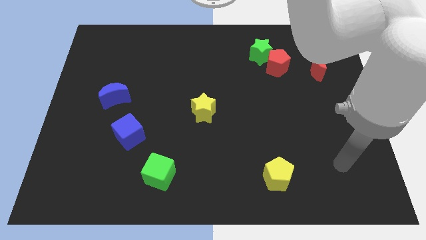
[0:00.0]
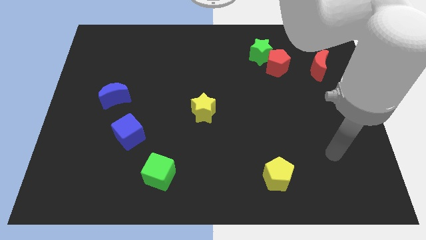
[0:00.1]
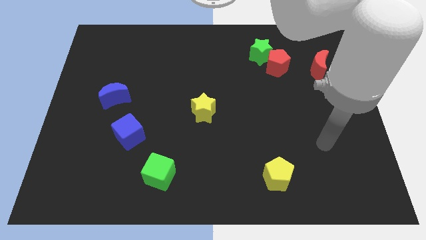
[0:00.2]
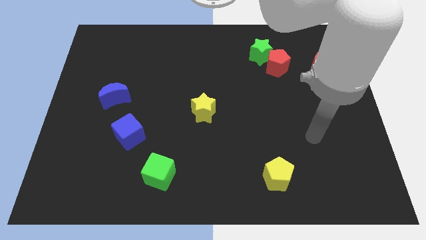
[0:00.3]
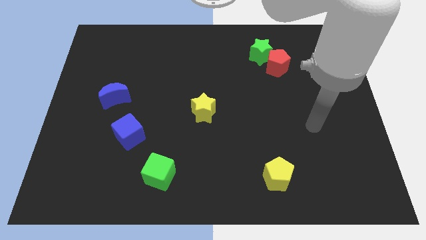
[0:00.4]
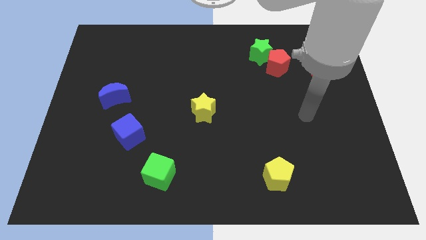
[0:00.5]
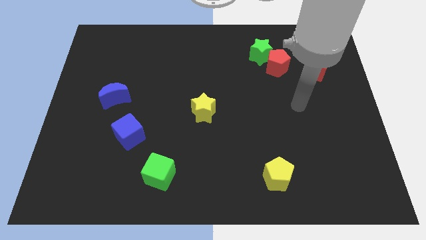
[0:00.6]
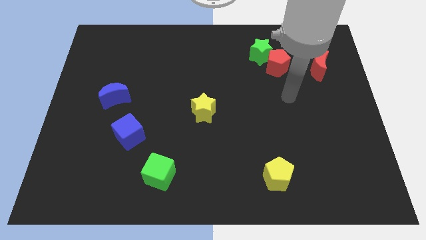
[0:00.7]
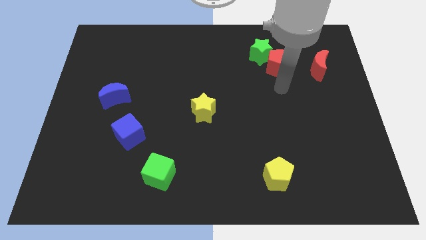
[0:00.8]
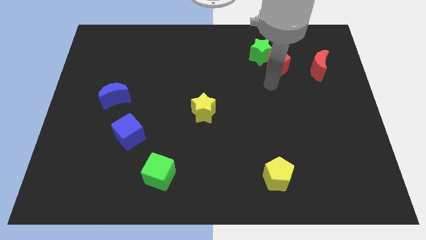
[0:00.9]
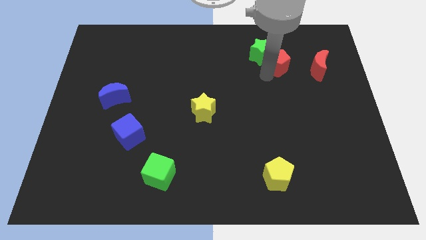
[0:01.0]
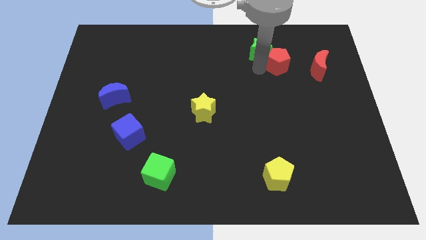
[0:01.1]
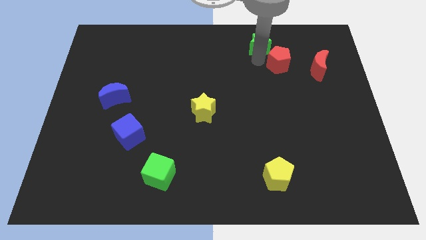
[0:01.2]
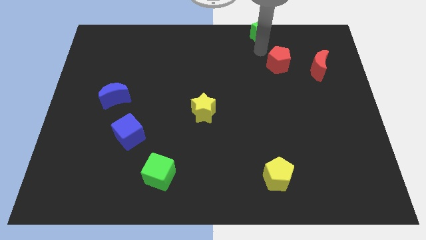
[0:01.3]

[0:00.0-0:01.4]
pull the red pentagon apart from the green star

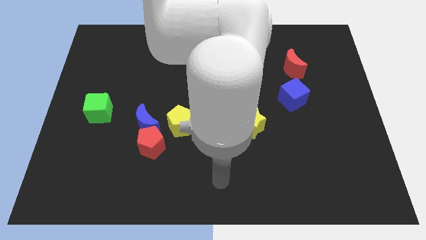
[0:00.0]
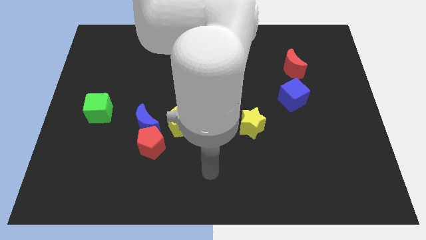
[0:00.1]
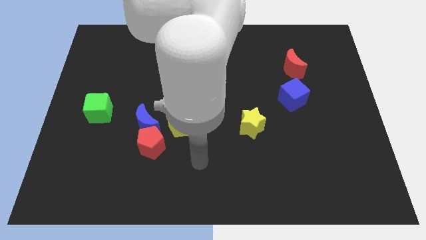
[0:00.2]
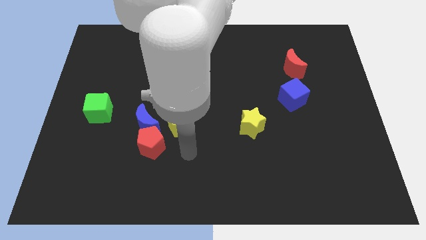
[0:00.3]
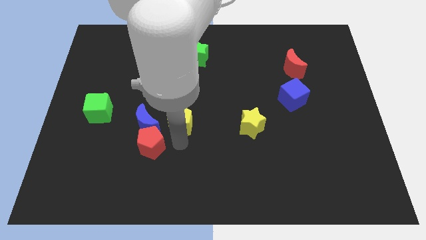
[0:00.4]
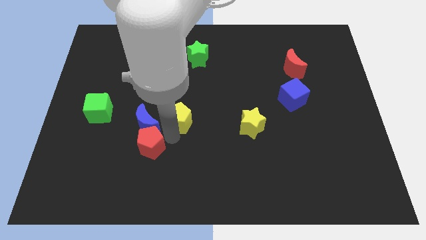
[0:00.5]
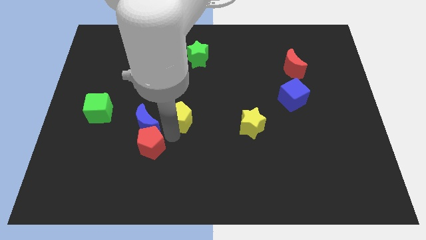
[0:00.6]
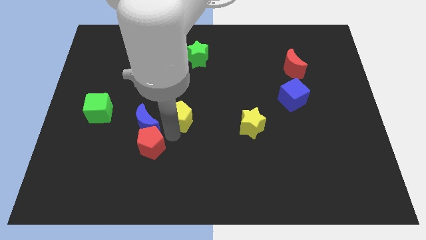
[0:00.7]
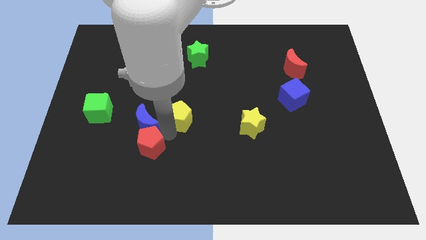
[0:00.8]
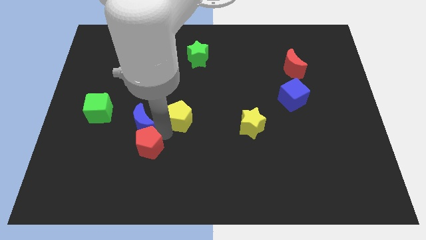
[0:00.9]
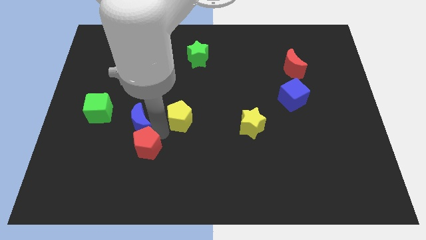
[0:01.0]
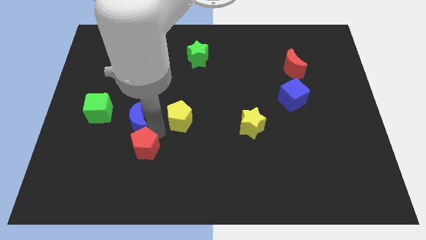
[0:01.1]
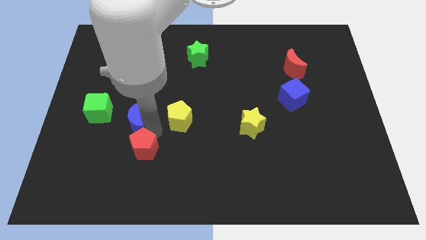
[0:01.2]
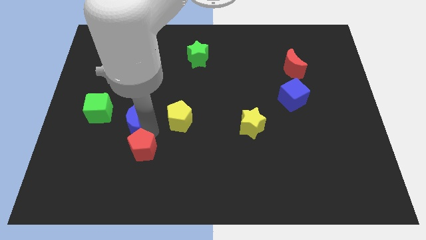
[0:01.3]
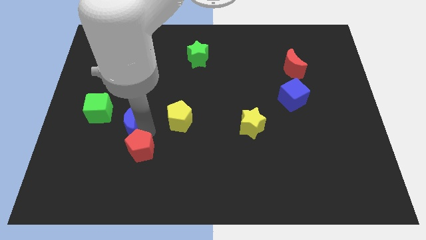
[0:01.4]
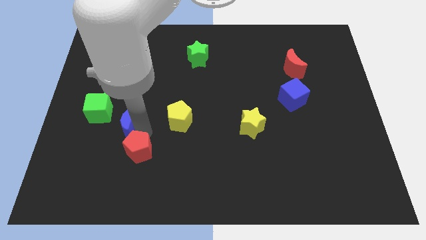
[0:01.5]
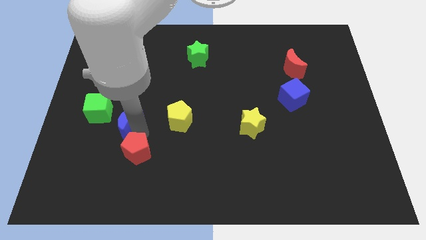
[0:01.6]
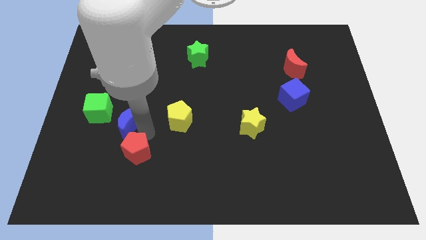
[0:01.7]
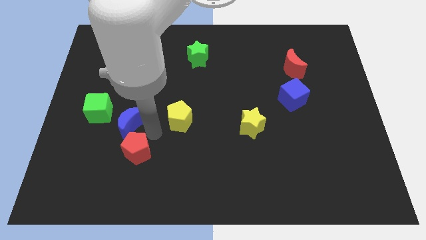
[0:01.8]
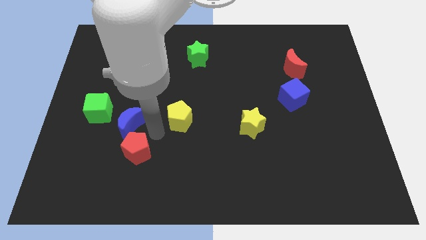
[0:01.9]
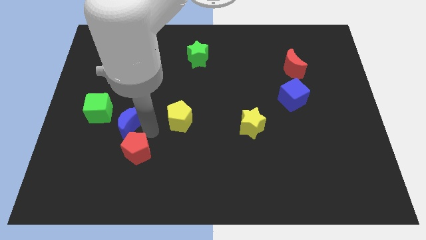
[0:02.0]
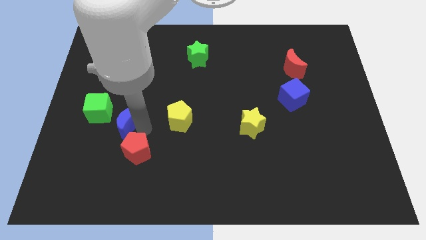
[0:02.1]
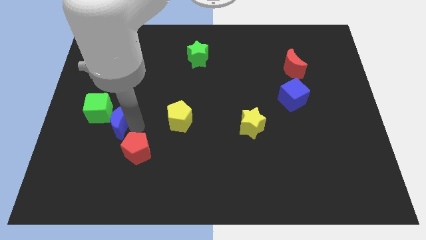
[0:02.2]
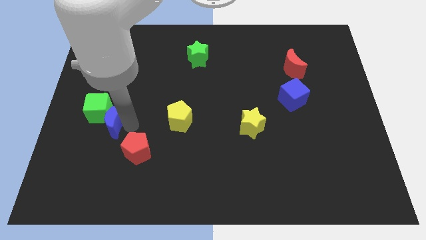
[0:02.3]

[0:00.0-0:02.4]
pull the blue moon apart from the red pentagon and yellow pentagon

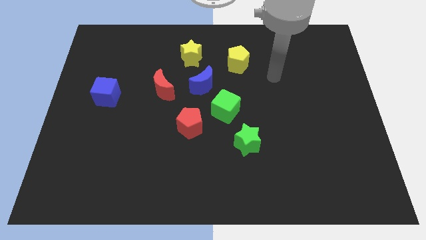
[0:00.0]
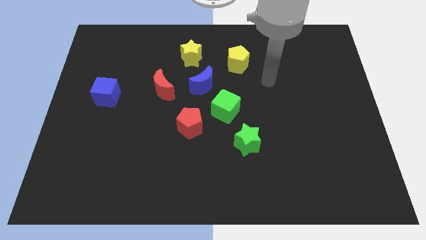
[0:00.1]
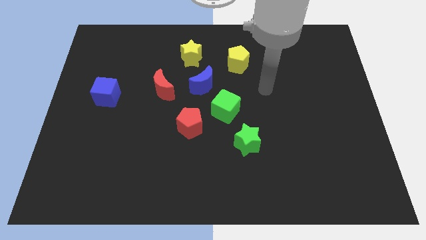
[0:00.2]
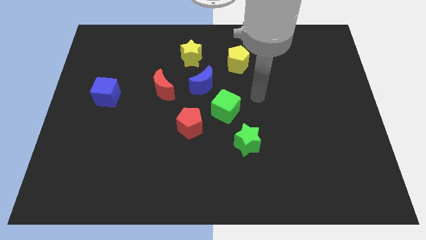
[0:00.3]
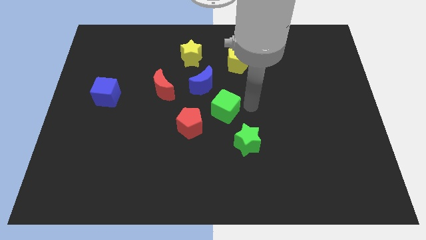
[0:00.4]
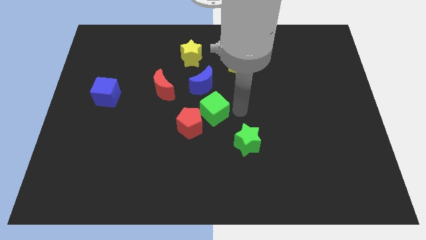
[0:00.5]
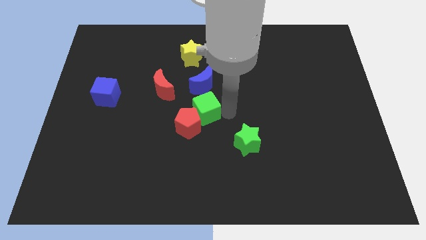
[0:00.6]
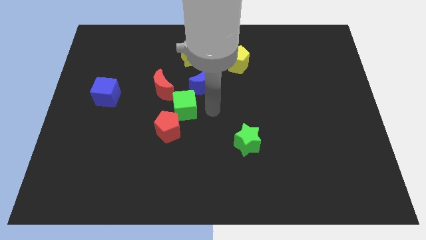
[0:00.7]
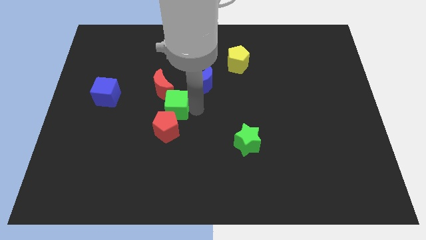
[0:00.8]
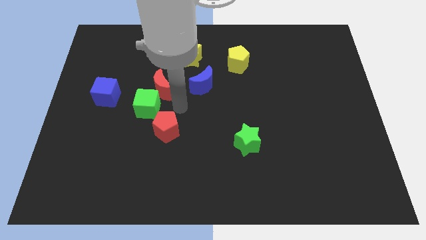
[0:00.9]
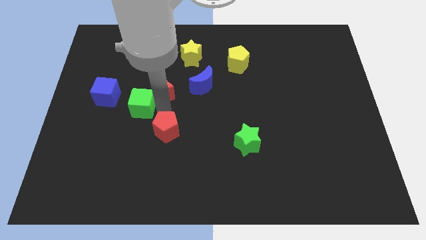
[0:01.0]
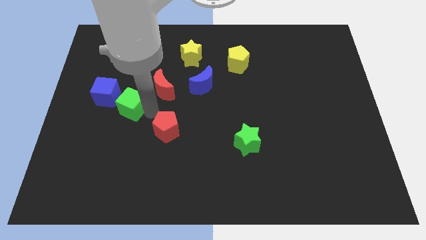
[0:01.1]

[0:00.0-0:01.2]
move the red pentagon away from the green cube

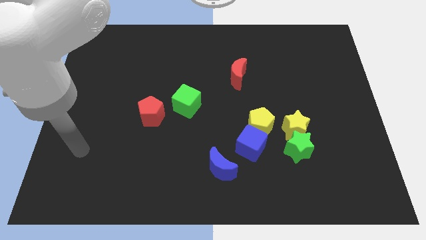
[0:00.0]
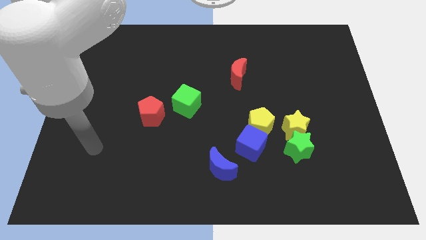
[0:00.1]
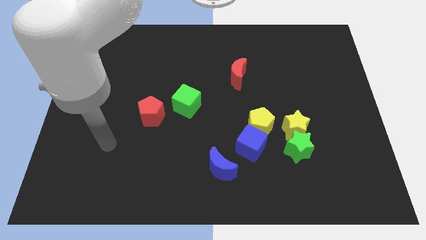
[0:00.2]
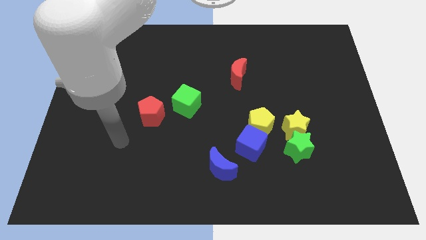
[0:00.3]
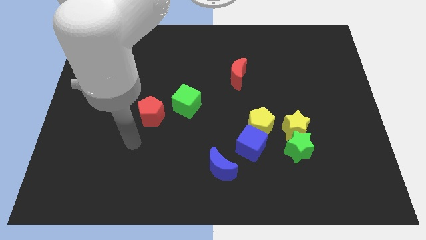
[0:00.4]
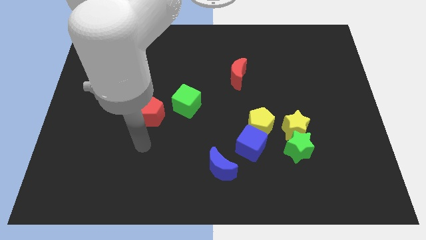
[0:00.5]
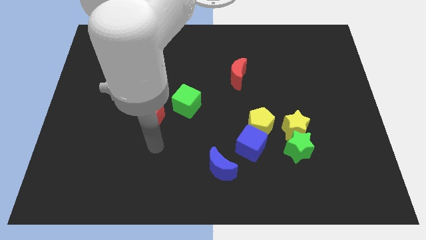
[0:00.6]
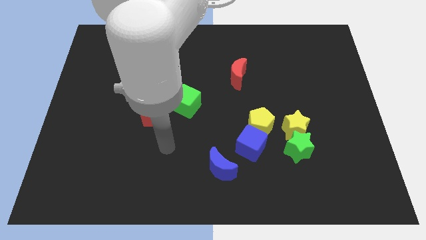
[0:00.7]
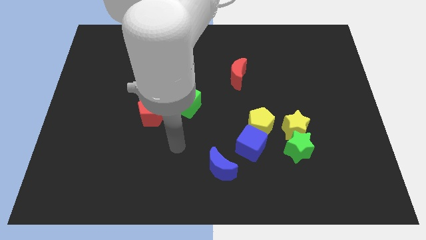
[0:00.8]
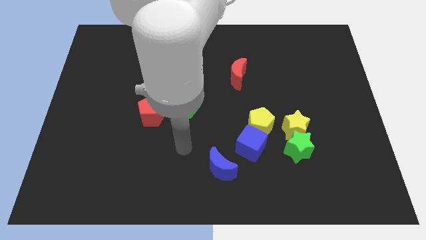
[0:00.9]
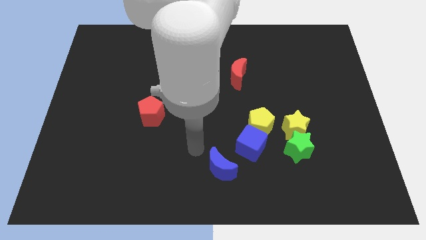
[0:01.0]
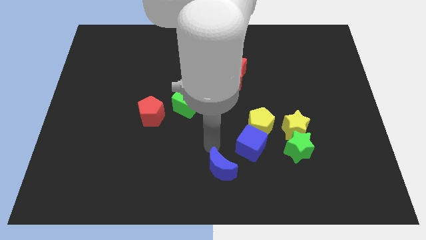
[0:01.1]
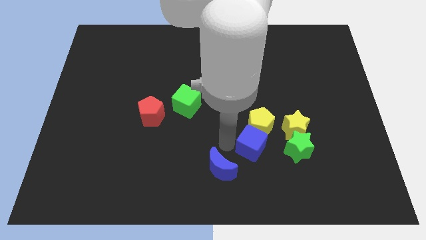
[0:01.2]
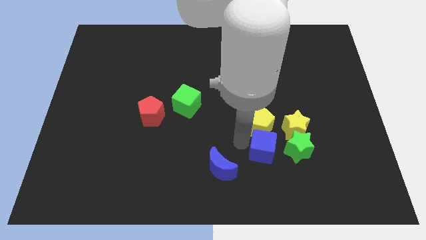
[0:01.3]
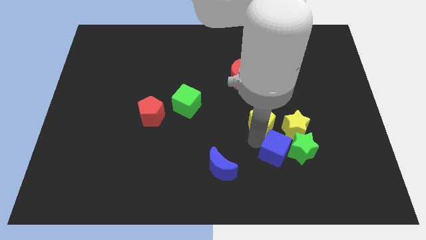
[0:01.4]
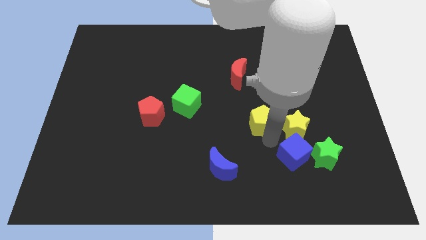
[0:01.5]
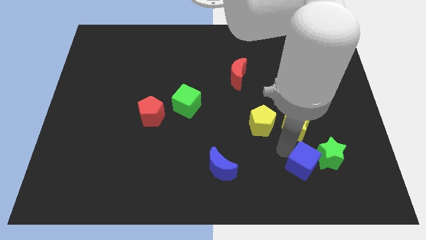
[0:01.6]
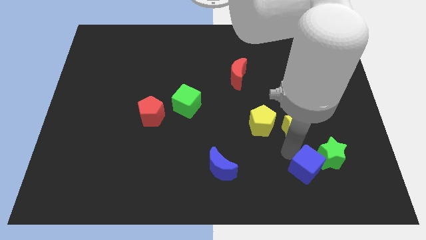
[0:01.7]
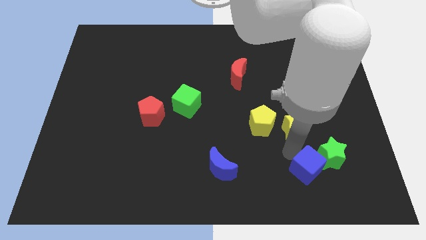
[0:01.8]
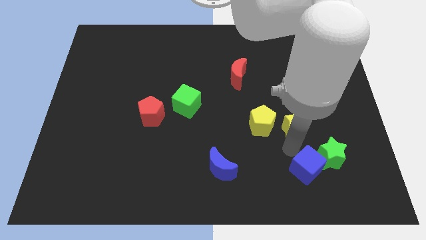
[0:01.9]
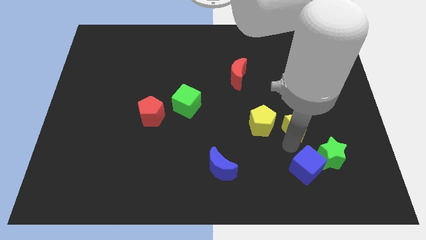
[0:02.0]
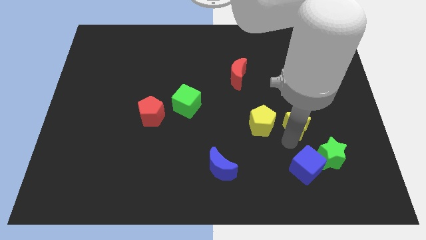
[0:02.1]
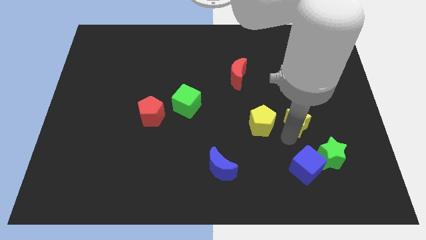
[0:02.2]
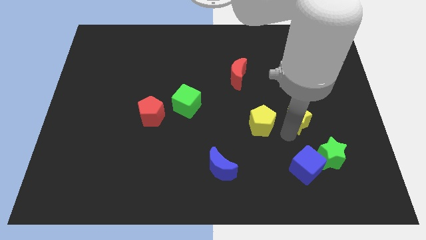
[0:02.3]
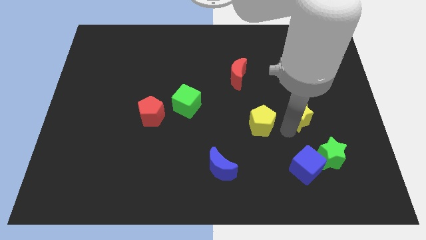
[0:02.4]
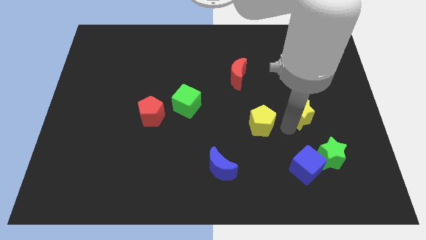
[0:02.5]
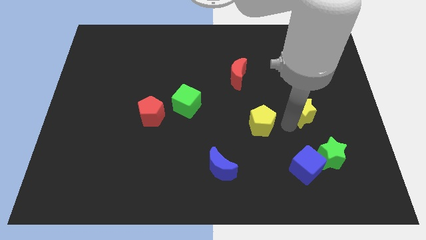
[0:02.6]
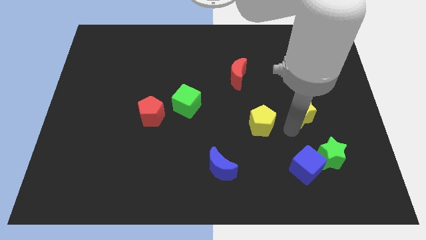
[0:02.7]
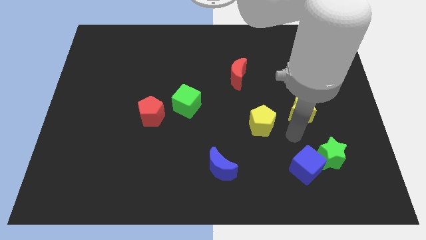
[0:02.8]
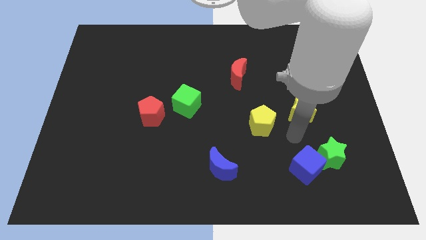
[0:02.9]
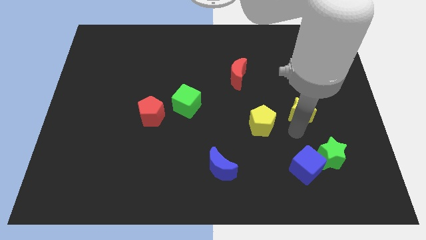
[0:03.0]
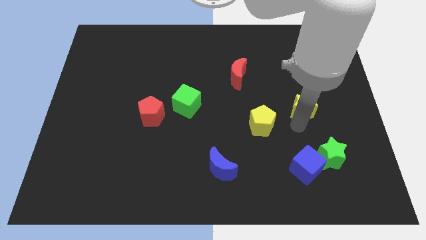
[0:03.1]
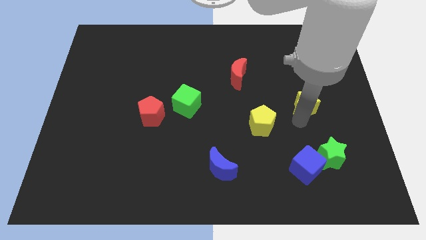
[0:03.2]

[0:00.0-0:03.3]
move the yellow star away from the green star and yellow pentagon

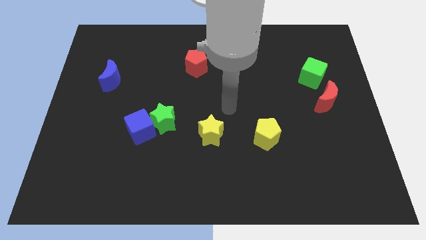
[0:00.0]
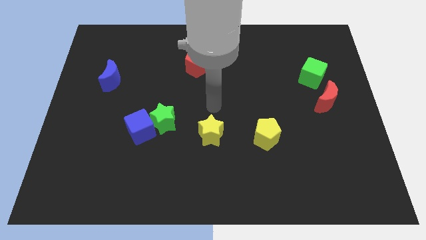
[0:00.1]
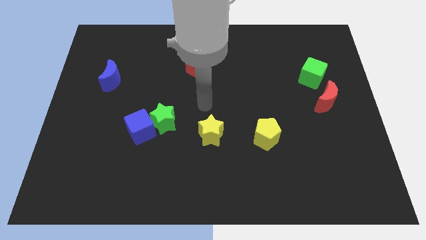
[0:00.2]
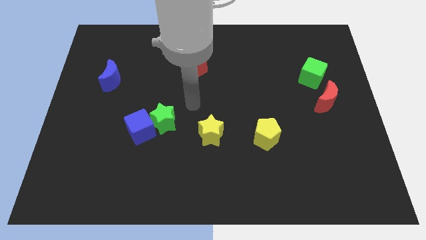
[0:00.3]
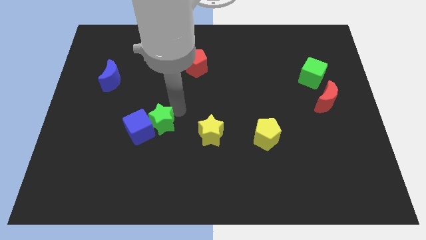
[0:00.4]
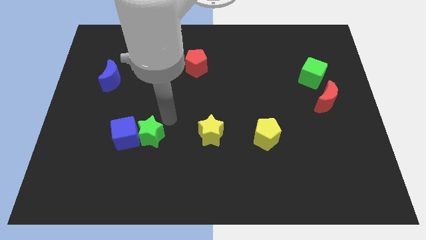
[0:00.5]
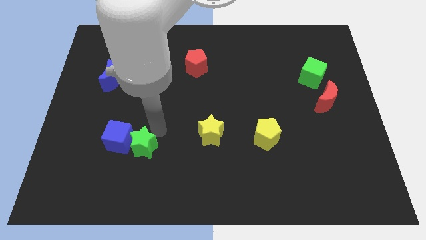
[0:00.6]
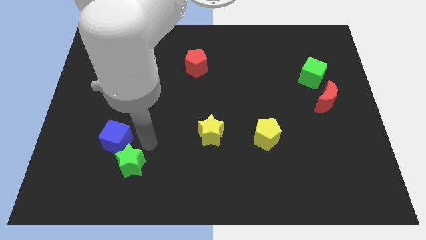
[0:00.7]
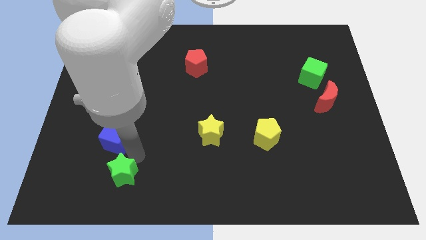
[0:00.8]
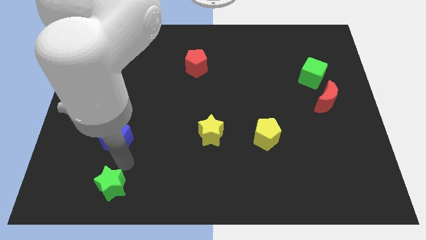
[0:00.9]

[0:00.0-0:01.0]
move the blue cube away from the green star
